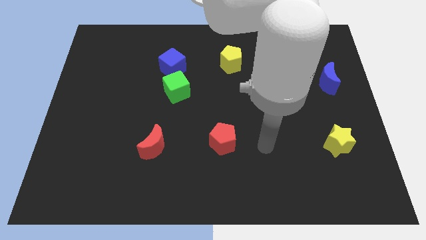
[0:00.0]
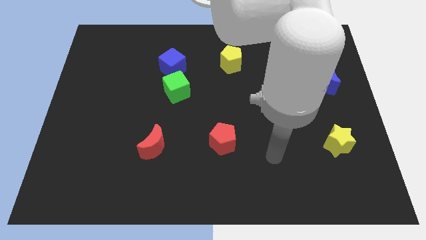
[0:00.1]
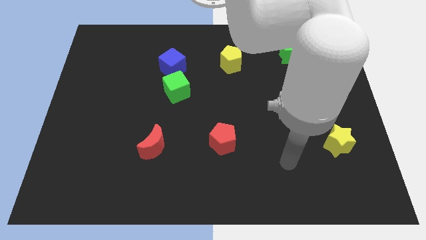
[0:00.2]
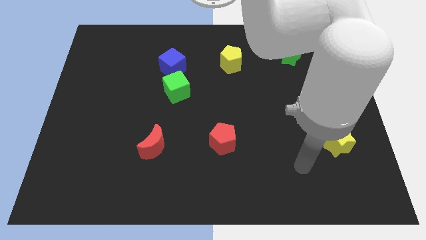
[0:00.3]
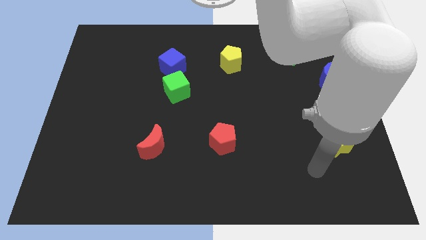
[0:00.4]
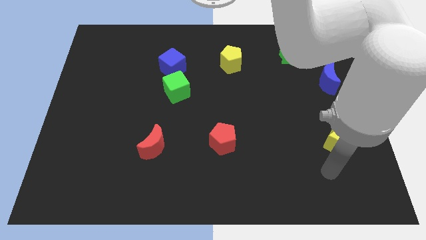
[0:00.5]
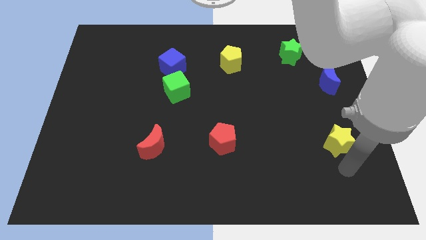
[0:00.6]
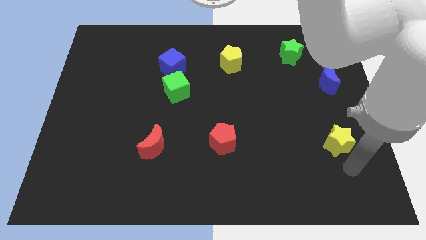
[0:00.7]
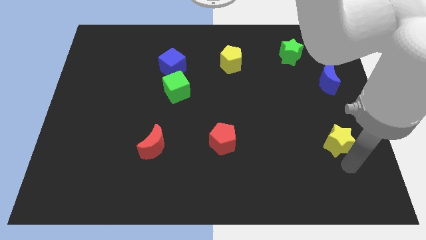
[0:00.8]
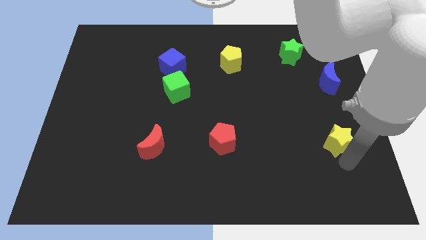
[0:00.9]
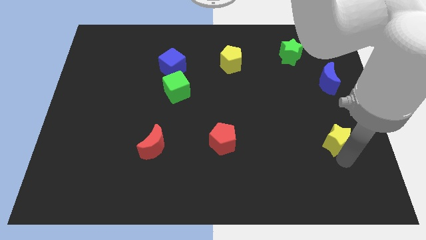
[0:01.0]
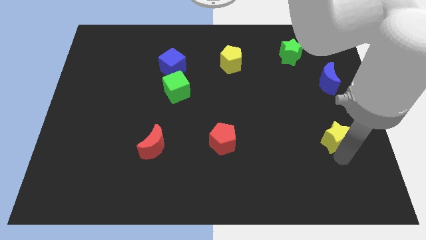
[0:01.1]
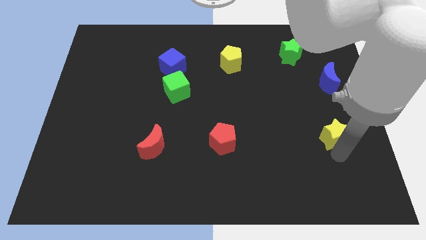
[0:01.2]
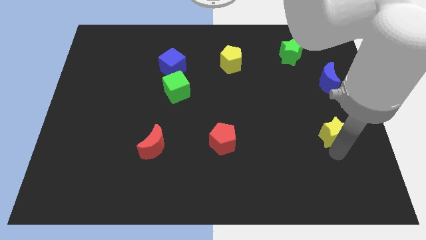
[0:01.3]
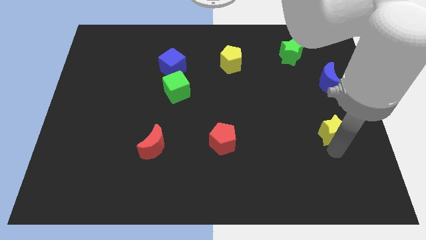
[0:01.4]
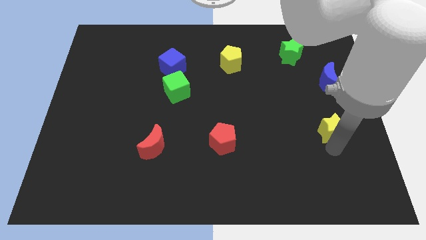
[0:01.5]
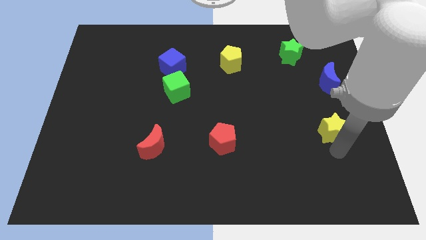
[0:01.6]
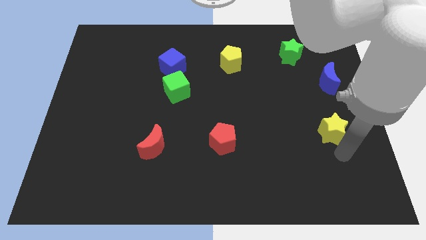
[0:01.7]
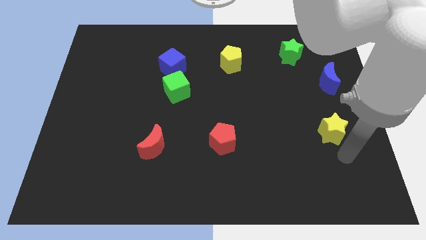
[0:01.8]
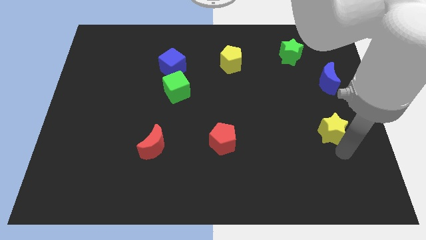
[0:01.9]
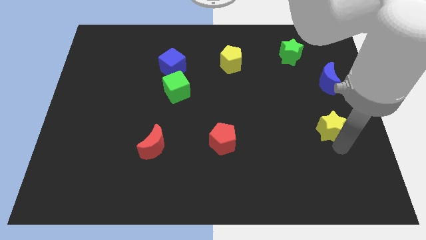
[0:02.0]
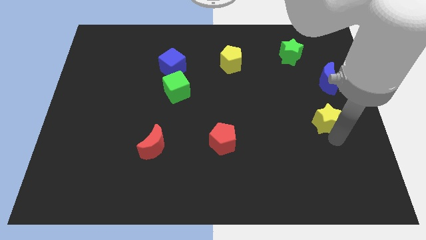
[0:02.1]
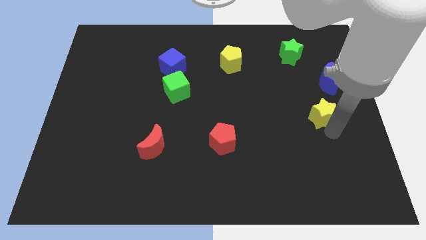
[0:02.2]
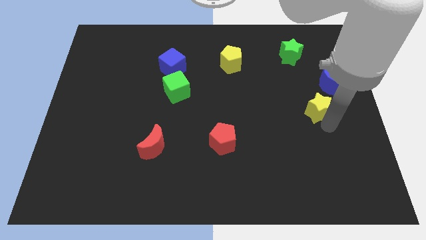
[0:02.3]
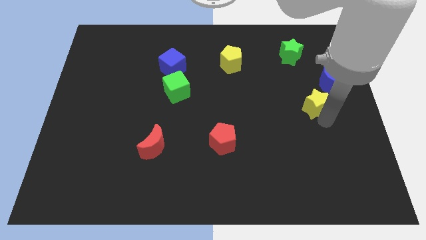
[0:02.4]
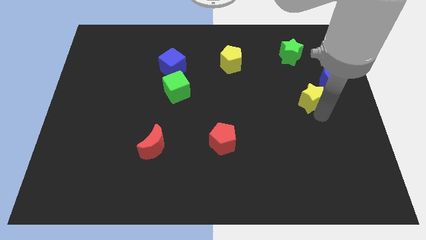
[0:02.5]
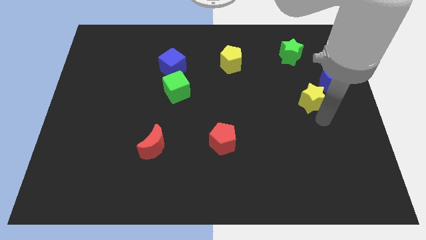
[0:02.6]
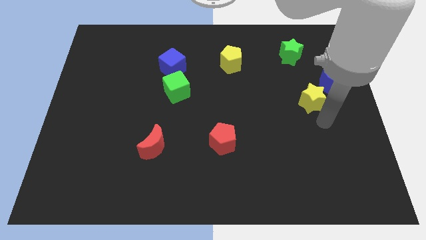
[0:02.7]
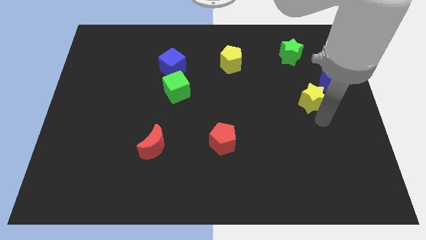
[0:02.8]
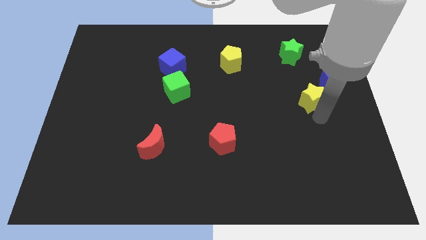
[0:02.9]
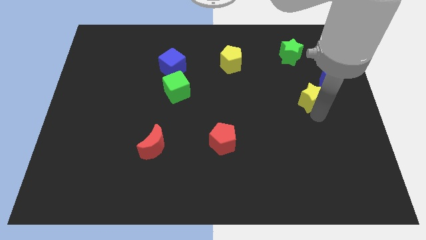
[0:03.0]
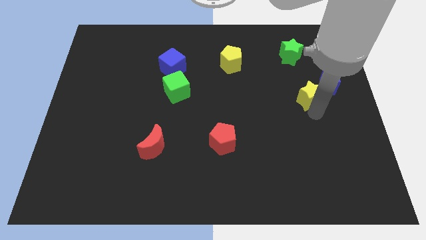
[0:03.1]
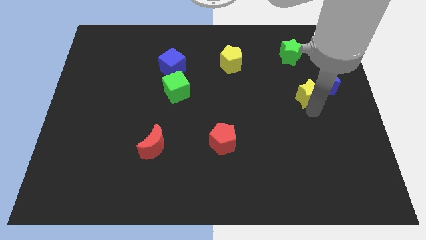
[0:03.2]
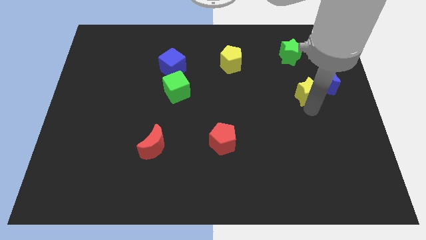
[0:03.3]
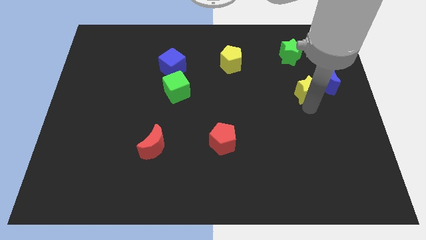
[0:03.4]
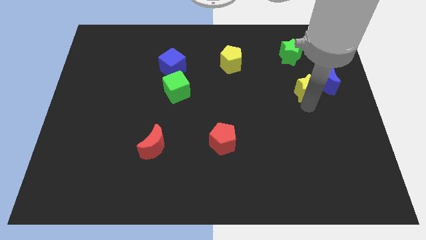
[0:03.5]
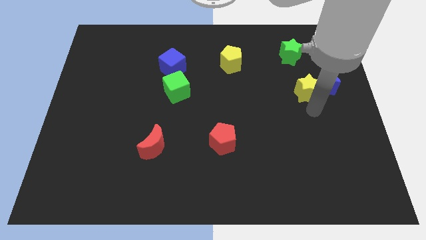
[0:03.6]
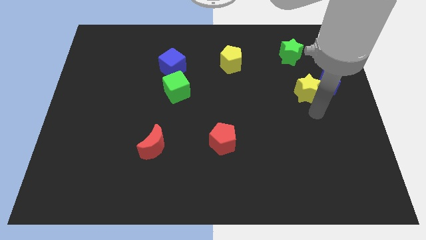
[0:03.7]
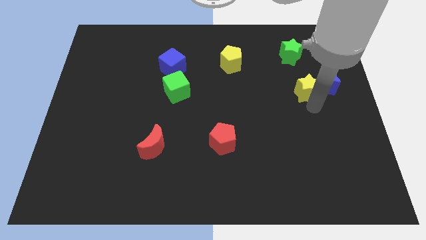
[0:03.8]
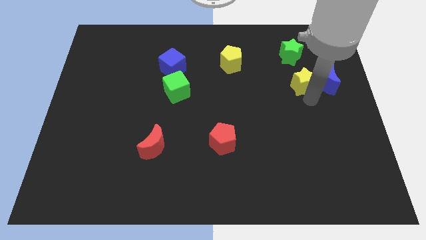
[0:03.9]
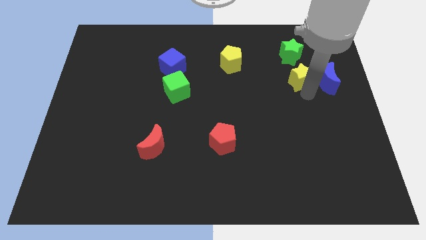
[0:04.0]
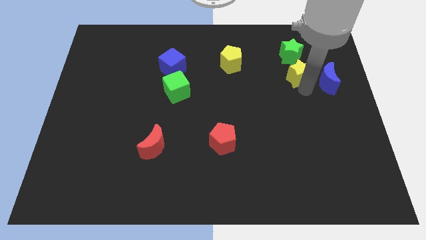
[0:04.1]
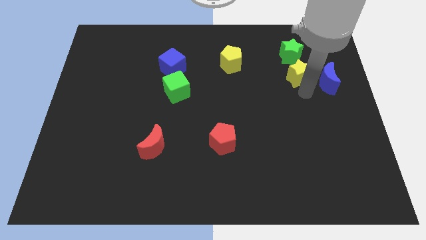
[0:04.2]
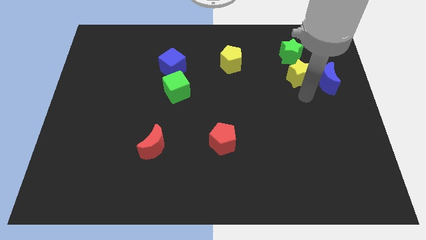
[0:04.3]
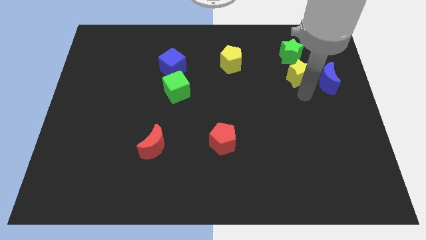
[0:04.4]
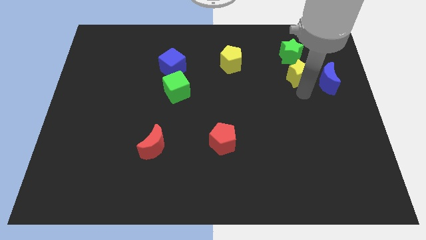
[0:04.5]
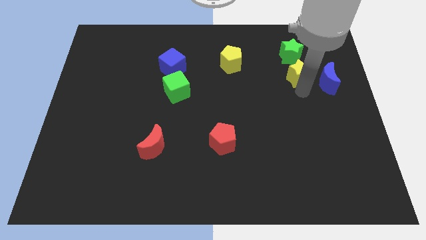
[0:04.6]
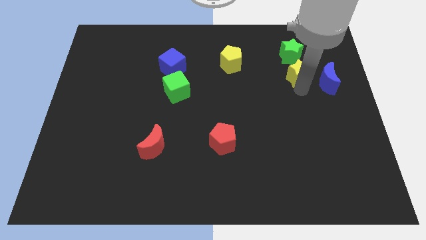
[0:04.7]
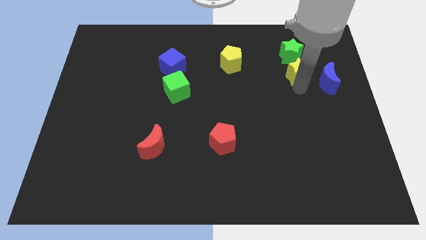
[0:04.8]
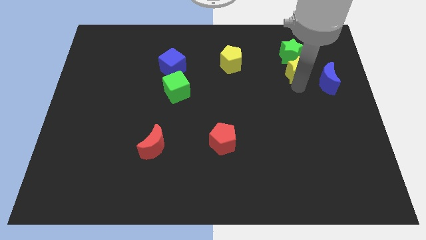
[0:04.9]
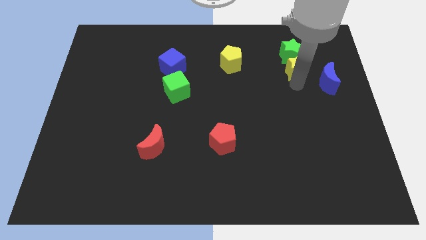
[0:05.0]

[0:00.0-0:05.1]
move the yellow star close to the green star
